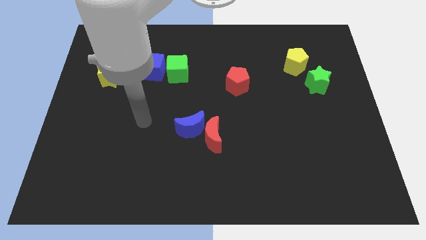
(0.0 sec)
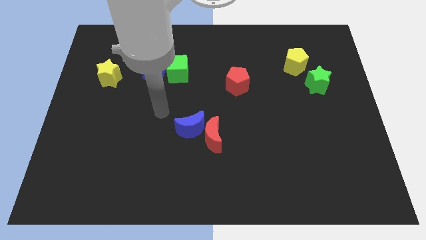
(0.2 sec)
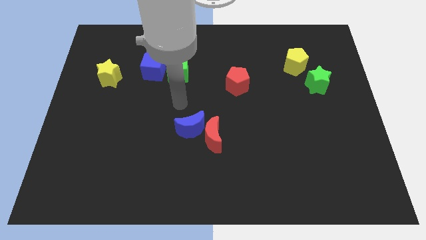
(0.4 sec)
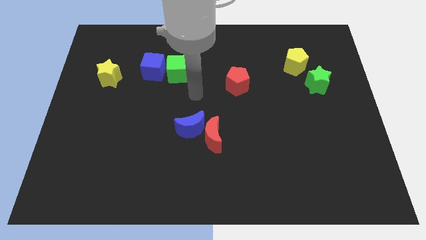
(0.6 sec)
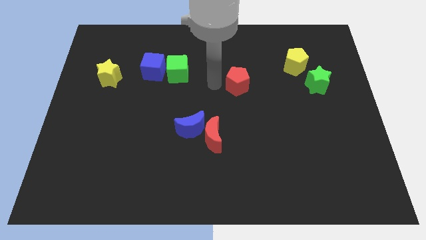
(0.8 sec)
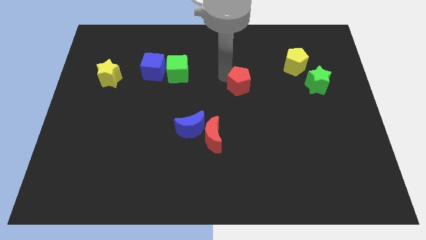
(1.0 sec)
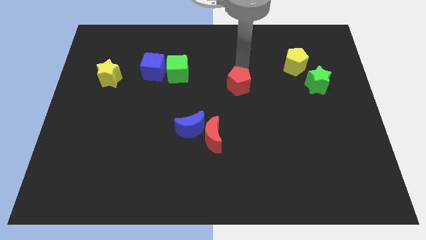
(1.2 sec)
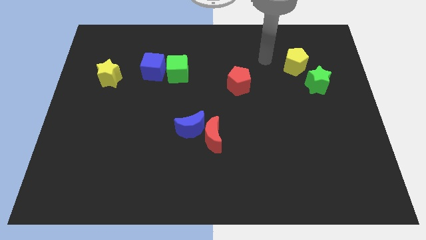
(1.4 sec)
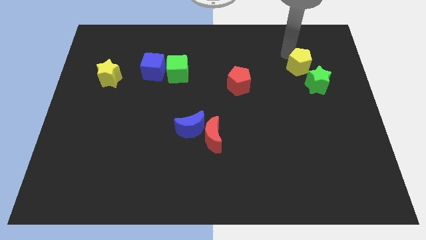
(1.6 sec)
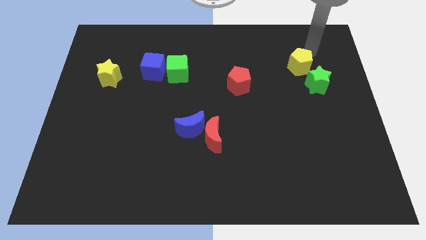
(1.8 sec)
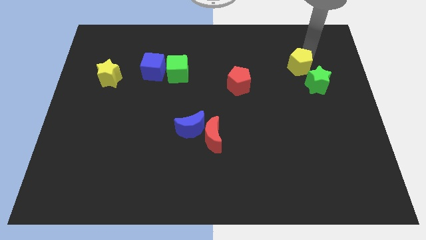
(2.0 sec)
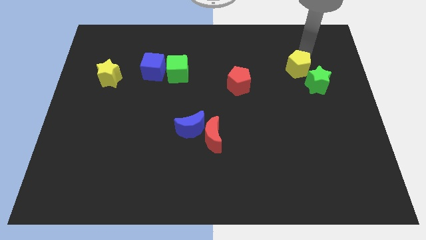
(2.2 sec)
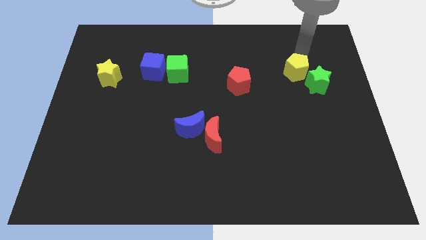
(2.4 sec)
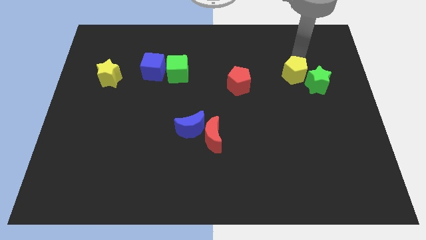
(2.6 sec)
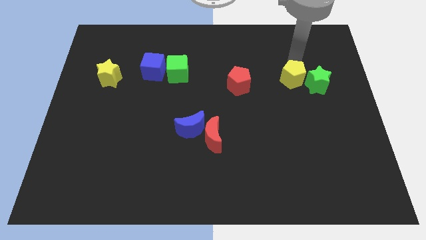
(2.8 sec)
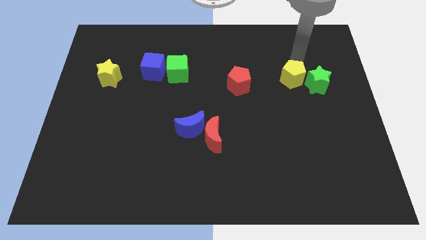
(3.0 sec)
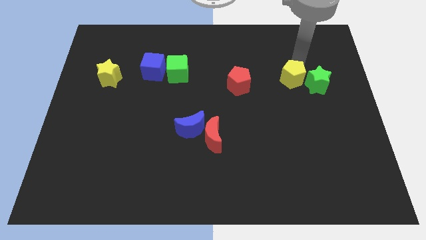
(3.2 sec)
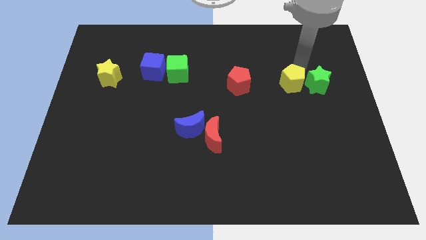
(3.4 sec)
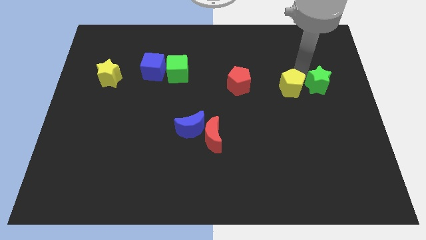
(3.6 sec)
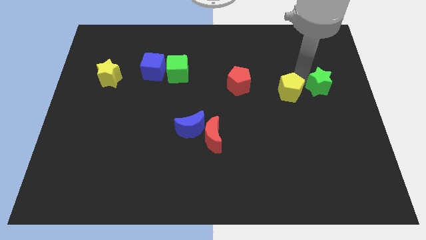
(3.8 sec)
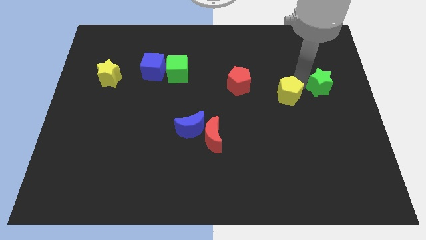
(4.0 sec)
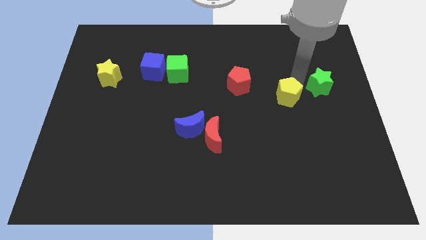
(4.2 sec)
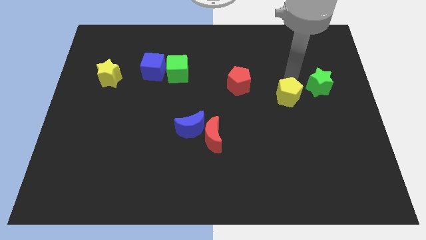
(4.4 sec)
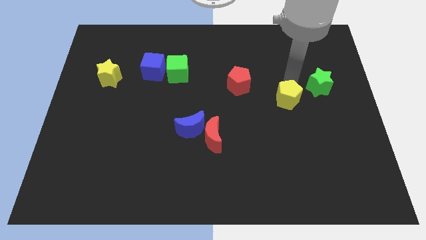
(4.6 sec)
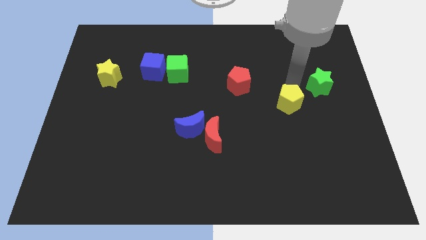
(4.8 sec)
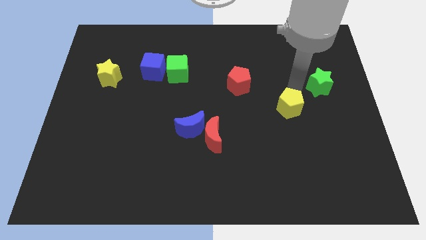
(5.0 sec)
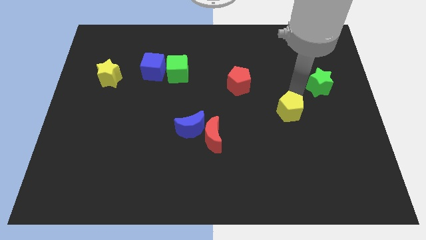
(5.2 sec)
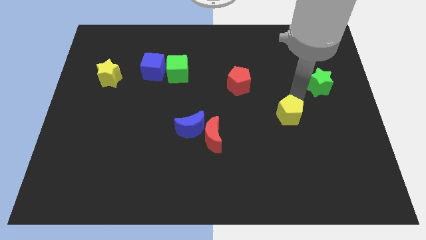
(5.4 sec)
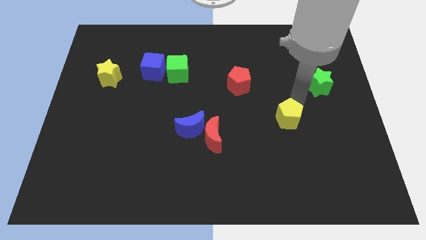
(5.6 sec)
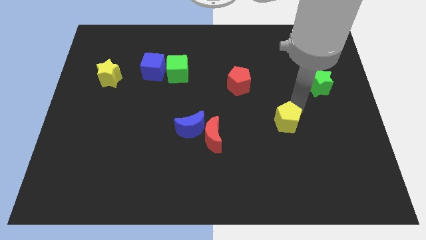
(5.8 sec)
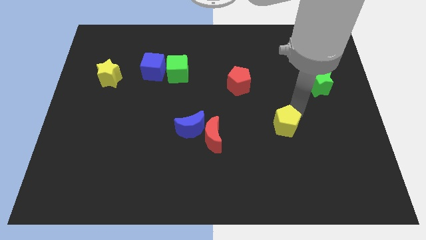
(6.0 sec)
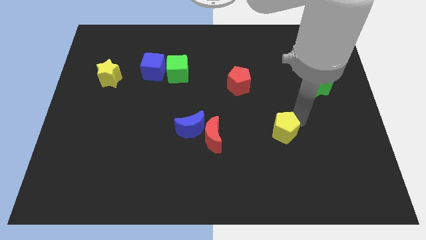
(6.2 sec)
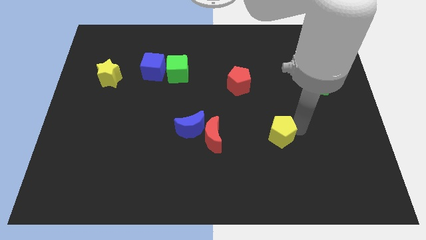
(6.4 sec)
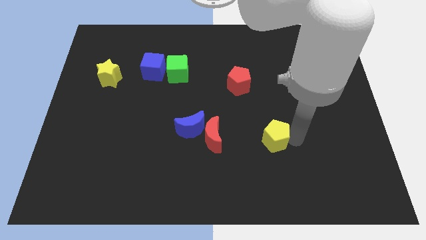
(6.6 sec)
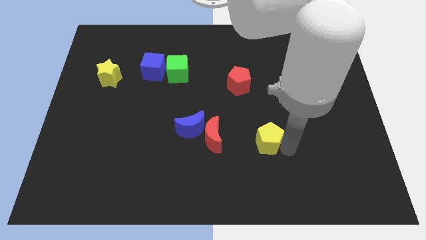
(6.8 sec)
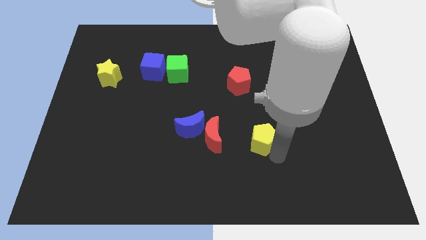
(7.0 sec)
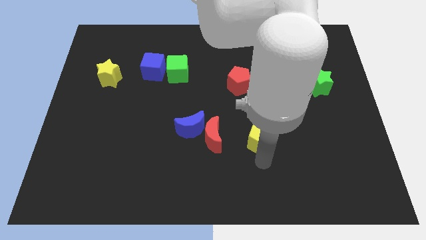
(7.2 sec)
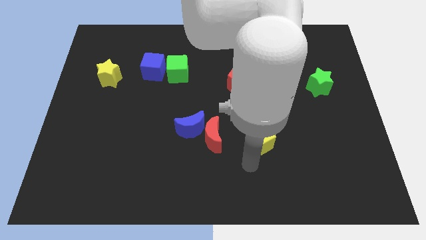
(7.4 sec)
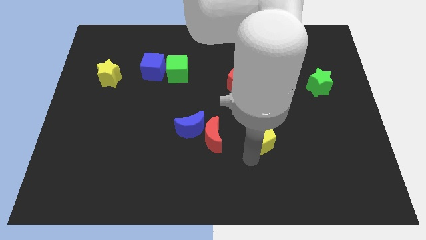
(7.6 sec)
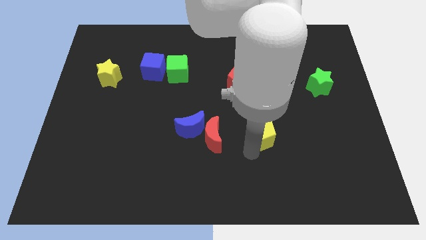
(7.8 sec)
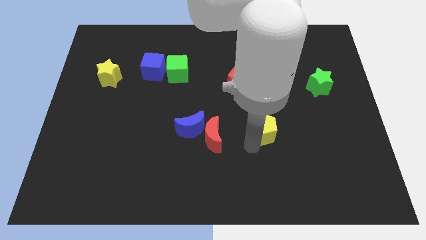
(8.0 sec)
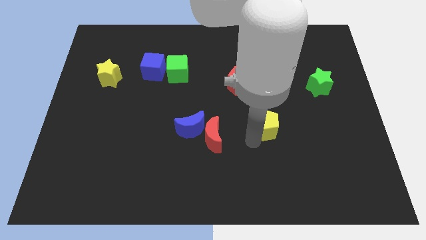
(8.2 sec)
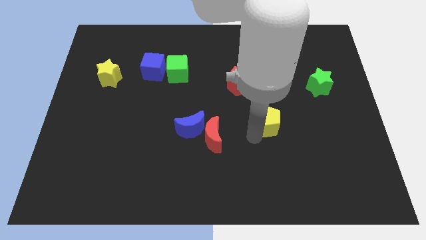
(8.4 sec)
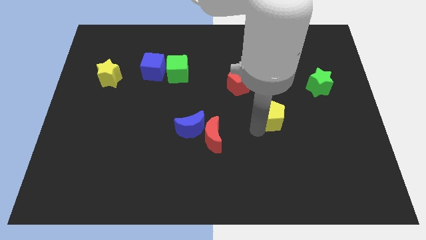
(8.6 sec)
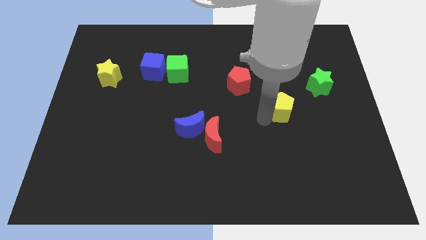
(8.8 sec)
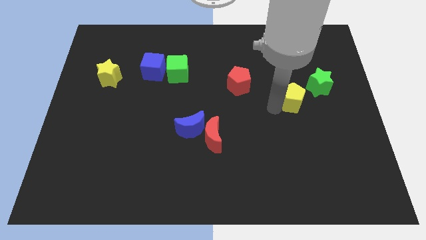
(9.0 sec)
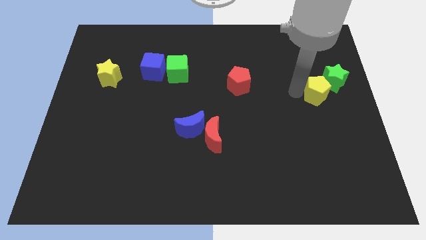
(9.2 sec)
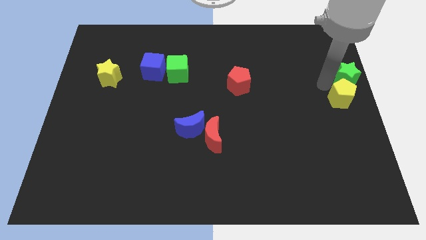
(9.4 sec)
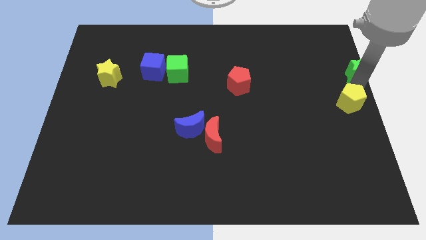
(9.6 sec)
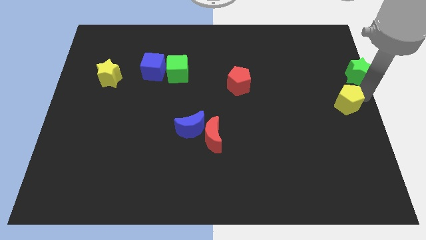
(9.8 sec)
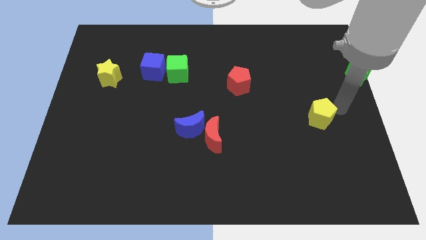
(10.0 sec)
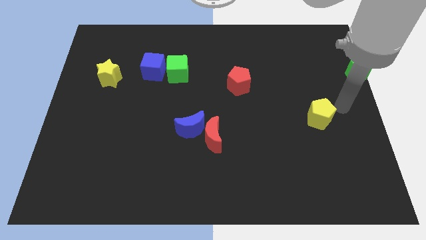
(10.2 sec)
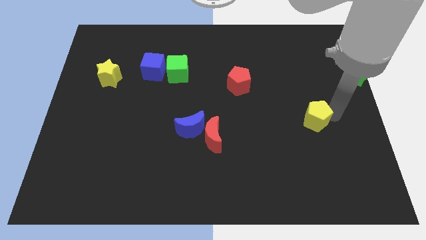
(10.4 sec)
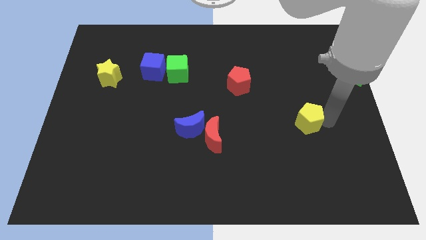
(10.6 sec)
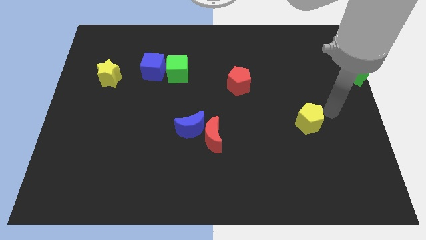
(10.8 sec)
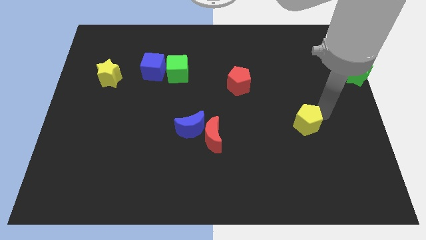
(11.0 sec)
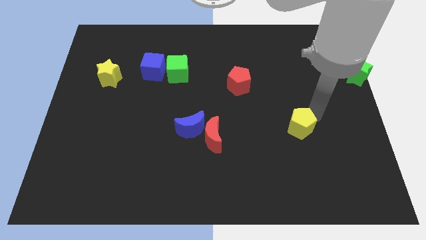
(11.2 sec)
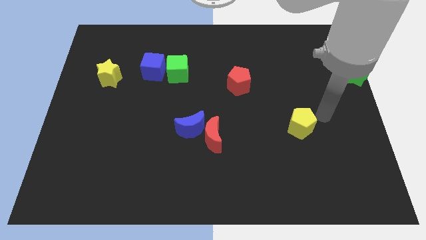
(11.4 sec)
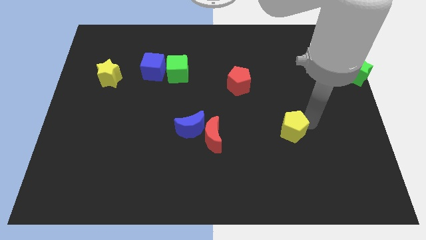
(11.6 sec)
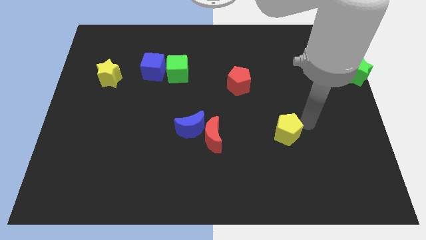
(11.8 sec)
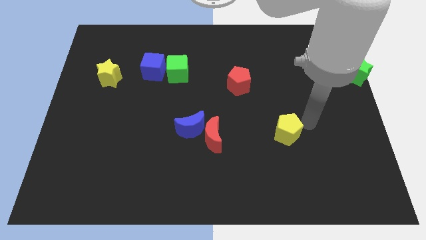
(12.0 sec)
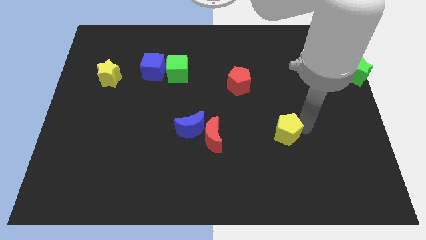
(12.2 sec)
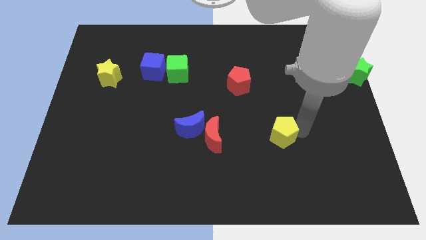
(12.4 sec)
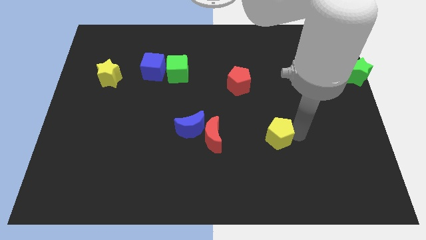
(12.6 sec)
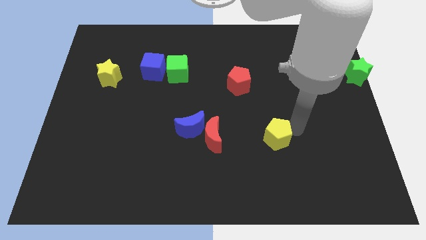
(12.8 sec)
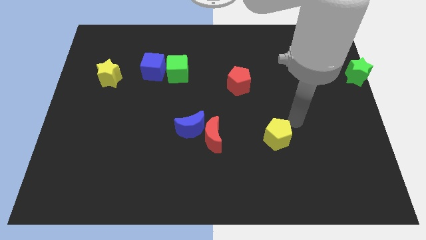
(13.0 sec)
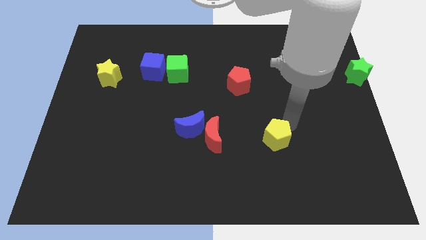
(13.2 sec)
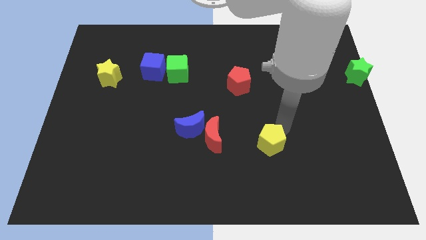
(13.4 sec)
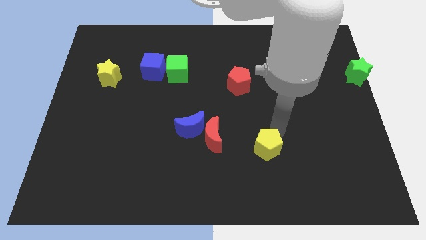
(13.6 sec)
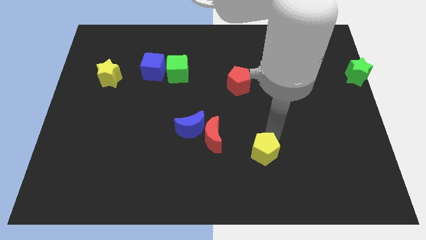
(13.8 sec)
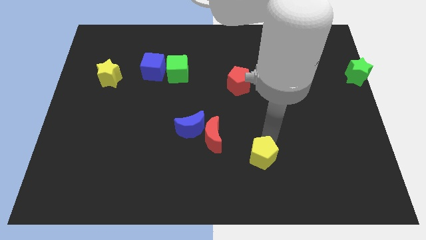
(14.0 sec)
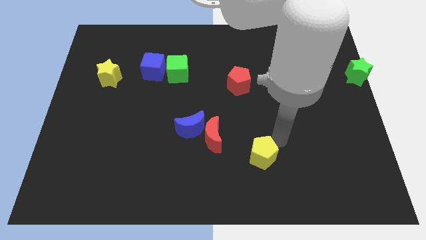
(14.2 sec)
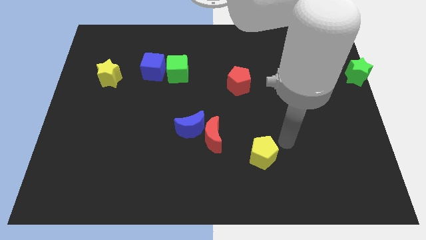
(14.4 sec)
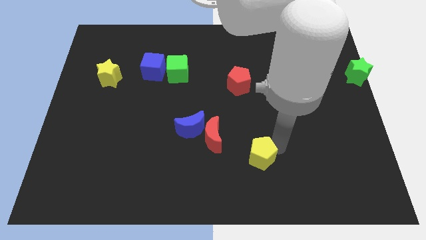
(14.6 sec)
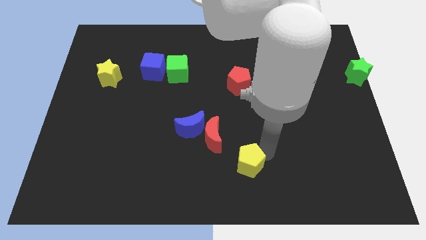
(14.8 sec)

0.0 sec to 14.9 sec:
slide the yellow pentagon to the bottom side
